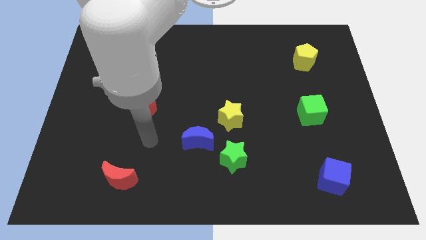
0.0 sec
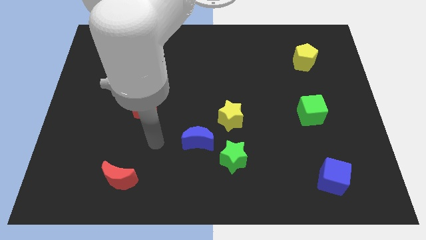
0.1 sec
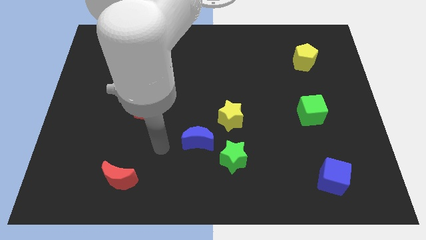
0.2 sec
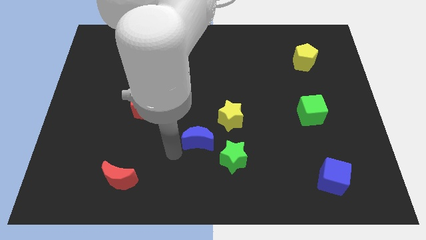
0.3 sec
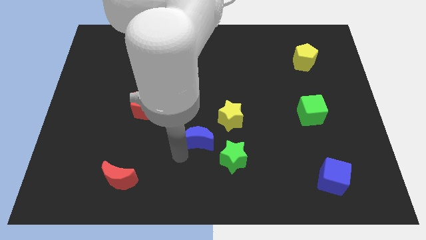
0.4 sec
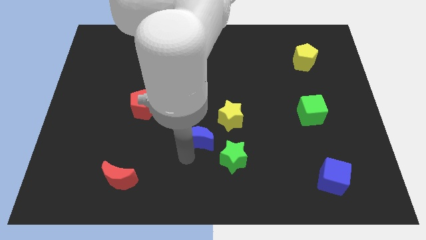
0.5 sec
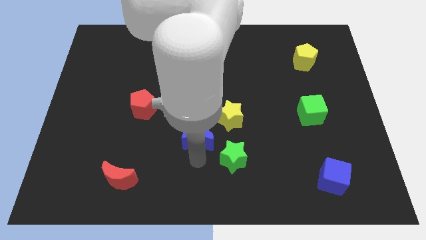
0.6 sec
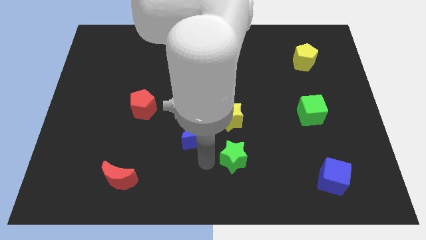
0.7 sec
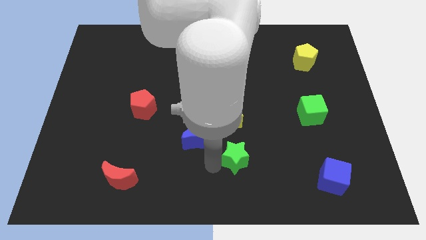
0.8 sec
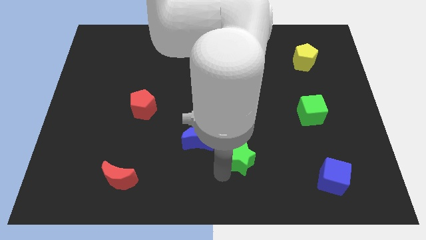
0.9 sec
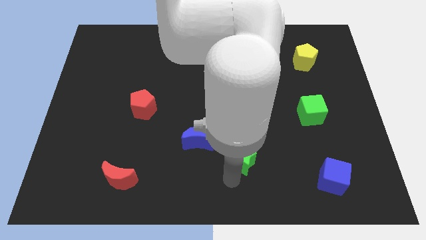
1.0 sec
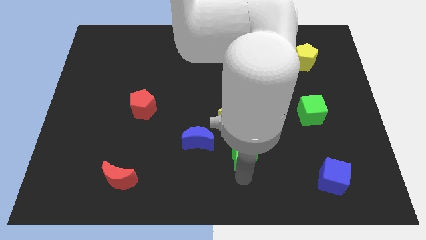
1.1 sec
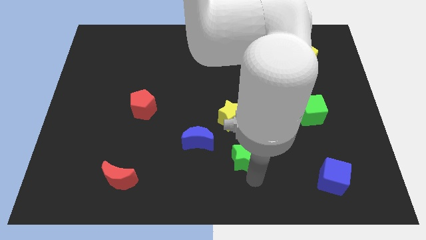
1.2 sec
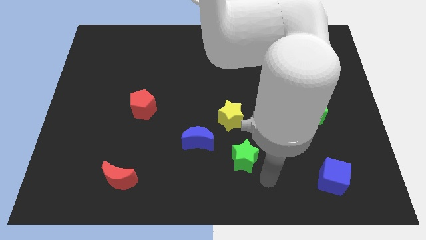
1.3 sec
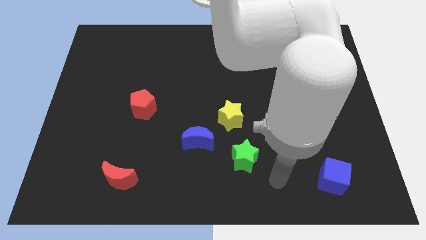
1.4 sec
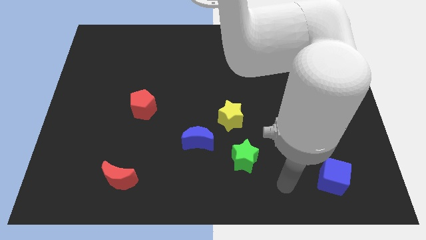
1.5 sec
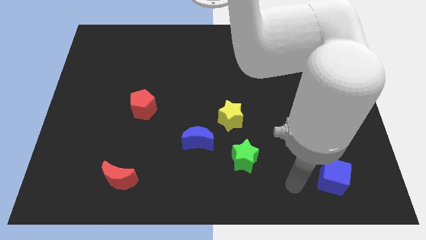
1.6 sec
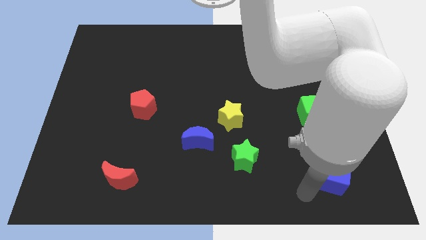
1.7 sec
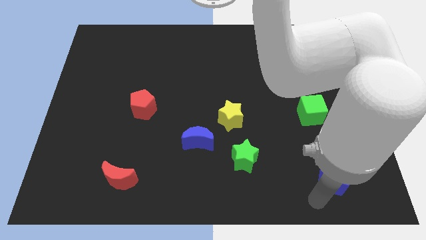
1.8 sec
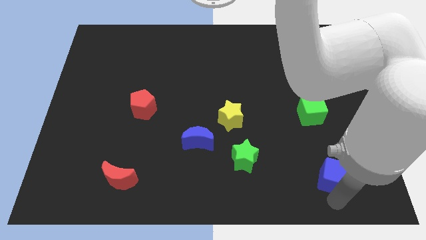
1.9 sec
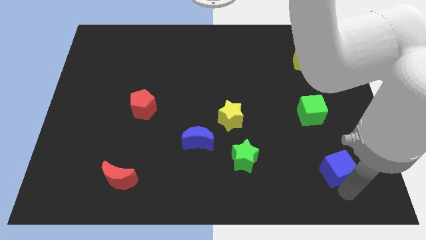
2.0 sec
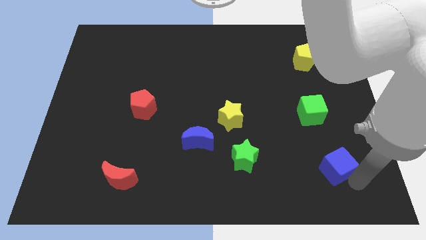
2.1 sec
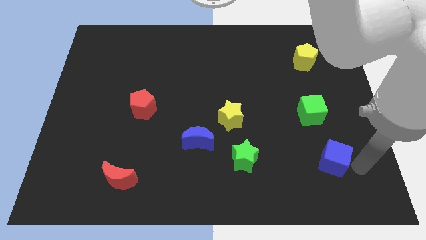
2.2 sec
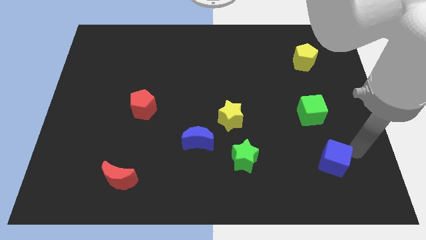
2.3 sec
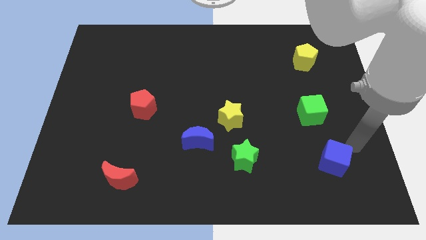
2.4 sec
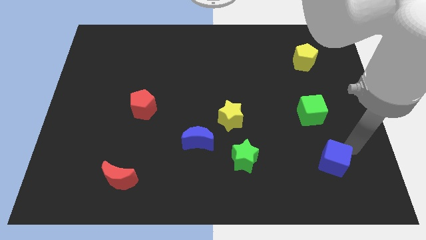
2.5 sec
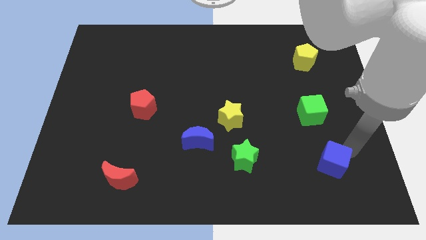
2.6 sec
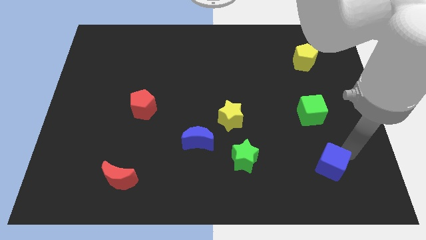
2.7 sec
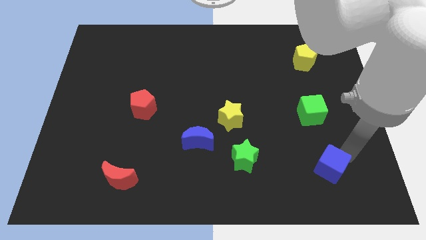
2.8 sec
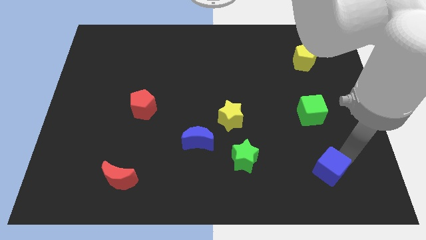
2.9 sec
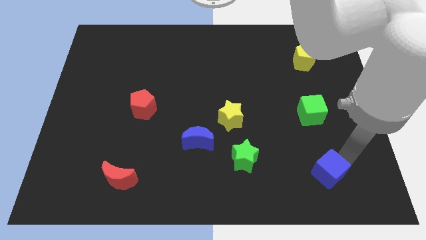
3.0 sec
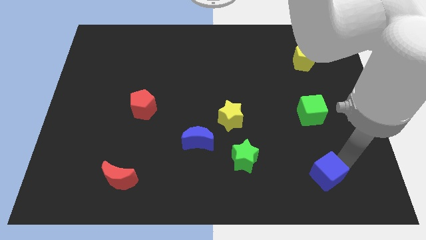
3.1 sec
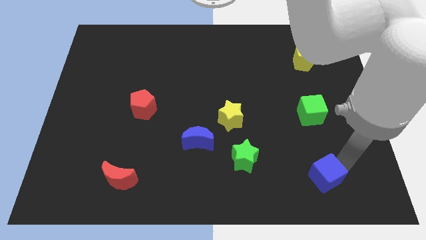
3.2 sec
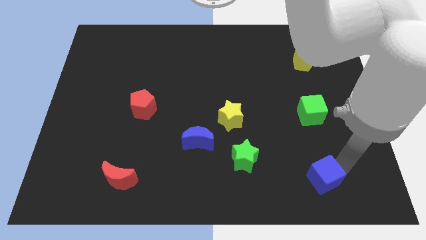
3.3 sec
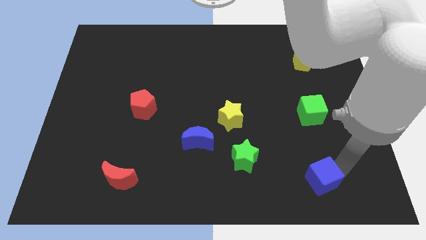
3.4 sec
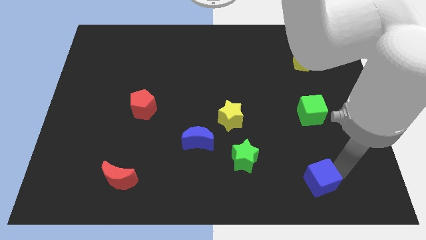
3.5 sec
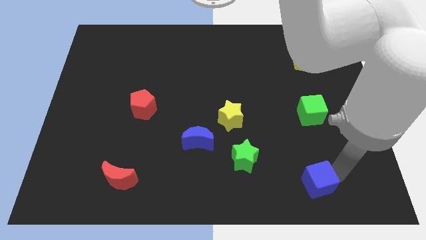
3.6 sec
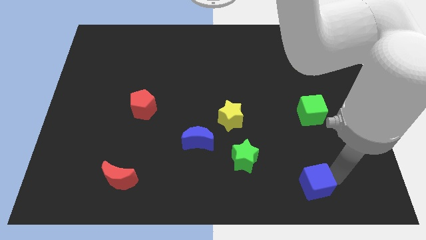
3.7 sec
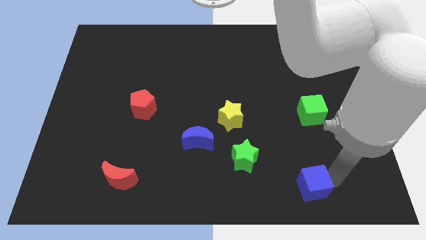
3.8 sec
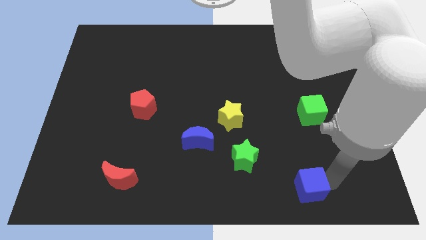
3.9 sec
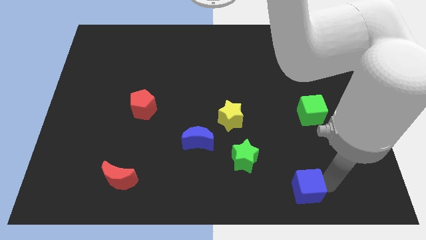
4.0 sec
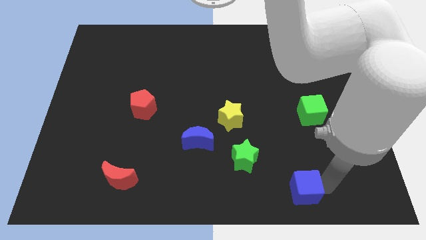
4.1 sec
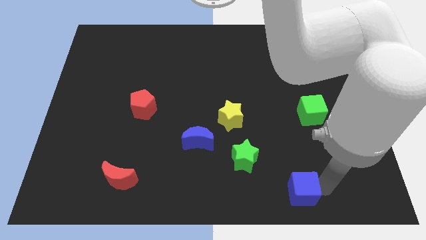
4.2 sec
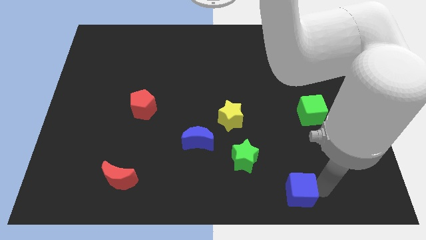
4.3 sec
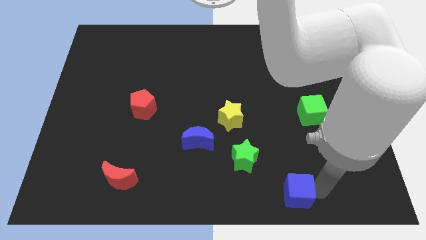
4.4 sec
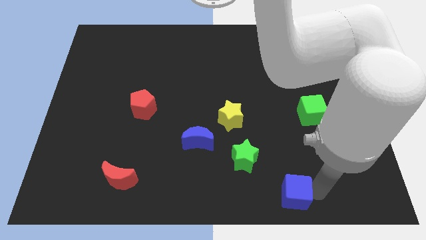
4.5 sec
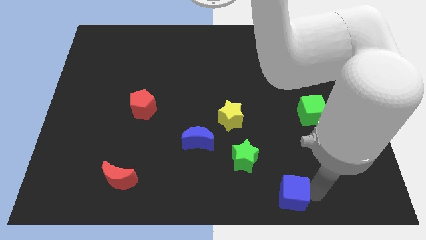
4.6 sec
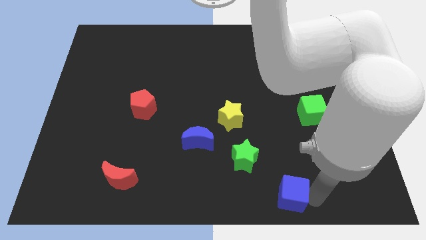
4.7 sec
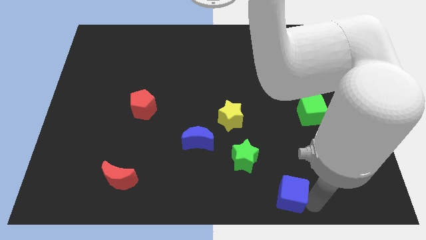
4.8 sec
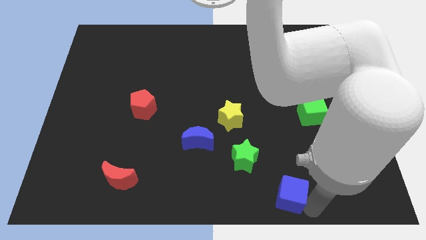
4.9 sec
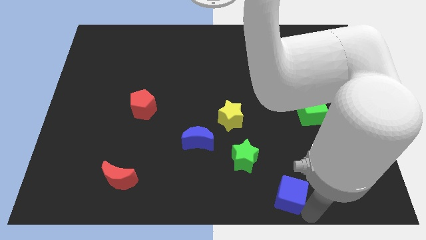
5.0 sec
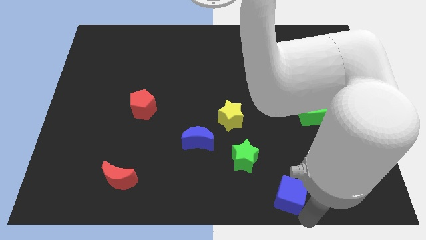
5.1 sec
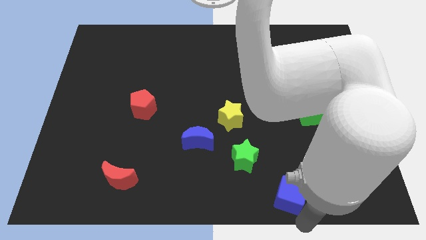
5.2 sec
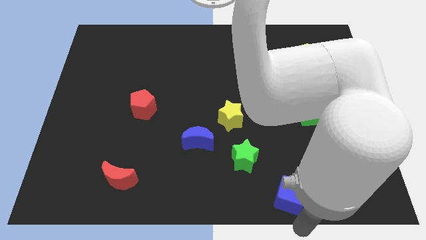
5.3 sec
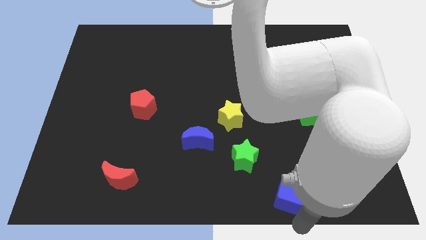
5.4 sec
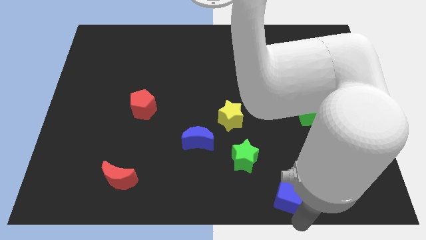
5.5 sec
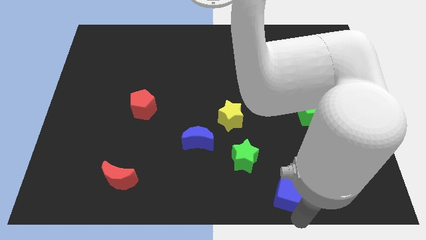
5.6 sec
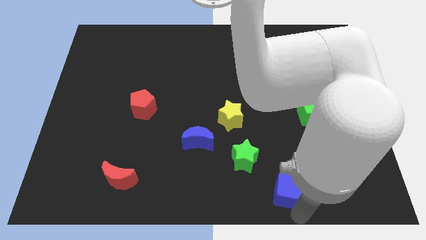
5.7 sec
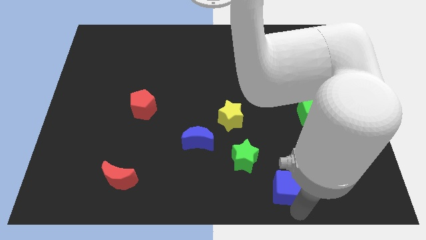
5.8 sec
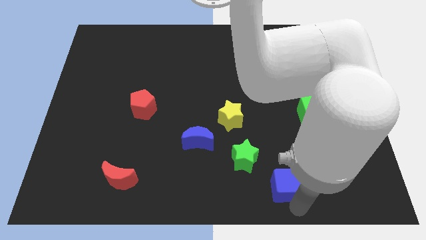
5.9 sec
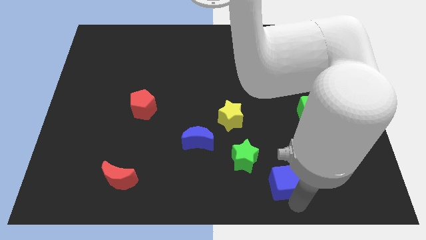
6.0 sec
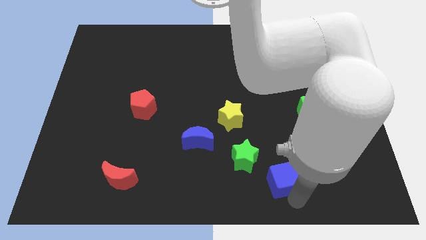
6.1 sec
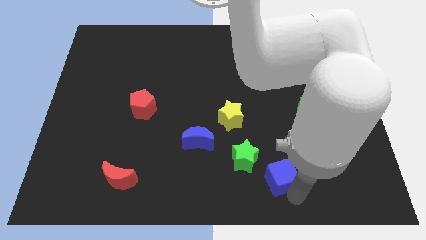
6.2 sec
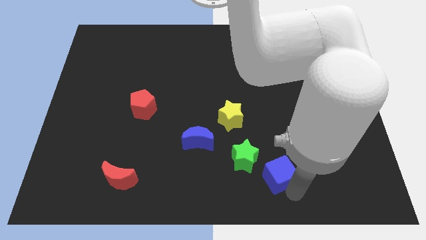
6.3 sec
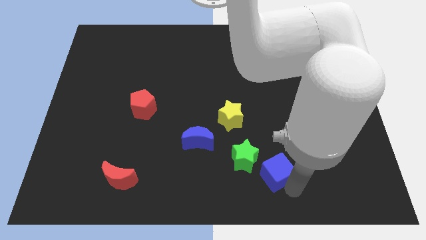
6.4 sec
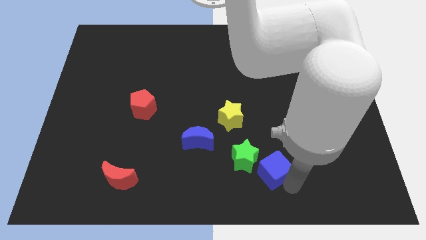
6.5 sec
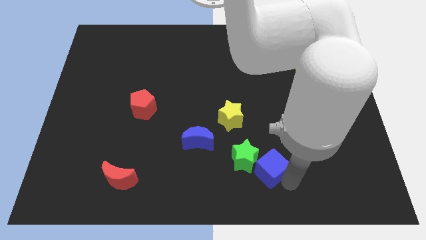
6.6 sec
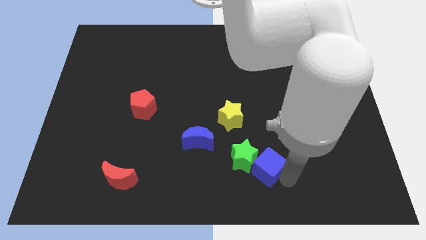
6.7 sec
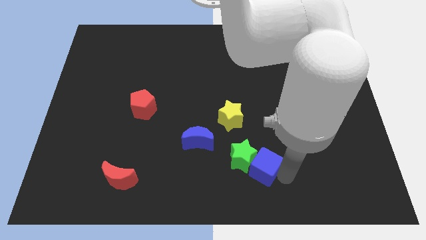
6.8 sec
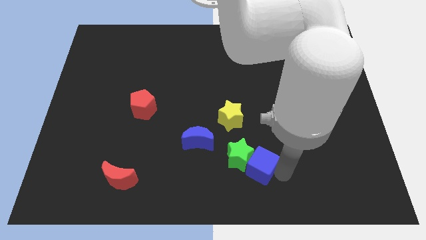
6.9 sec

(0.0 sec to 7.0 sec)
move the blue cube to the bottom side
